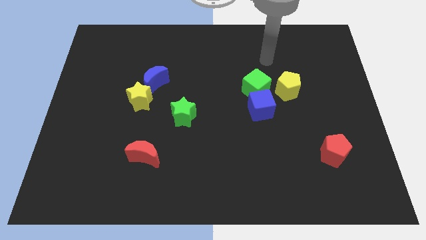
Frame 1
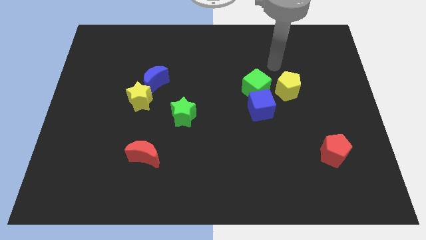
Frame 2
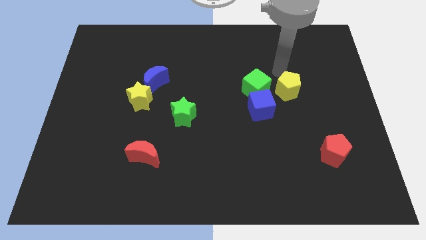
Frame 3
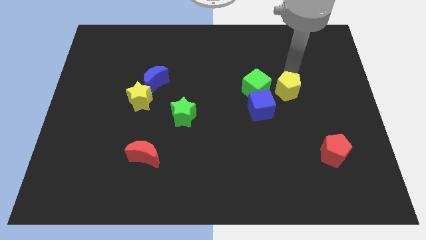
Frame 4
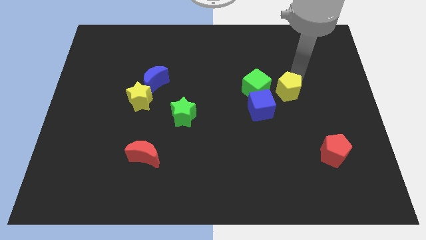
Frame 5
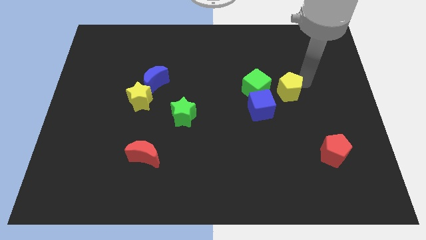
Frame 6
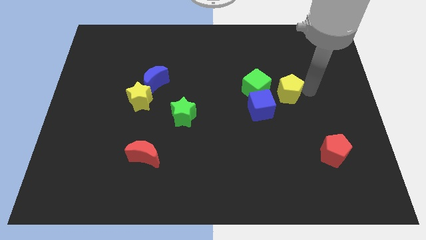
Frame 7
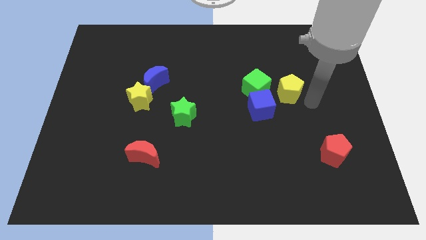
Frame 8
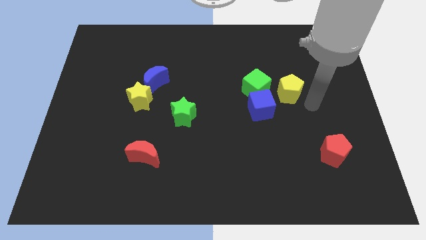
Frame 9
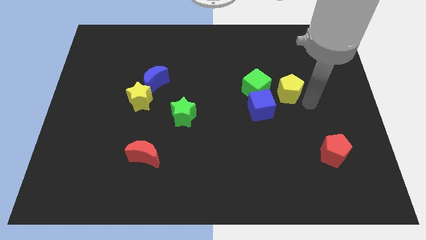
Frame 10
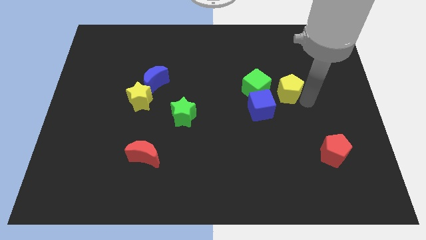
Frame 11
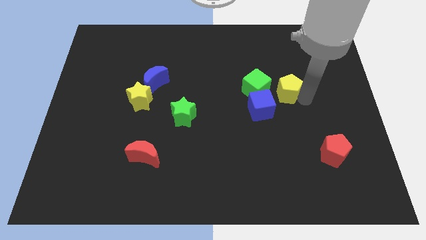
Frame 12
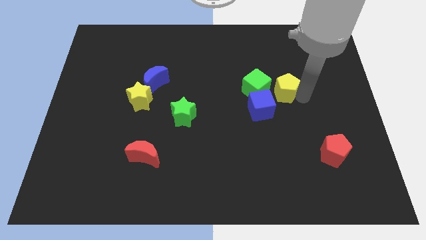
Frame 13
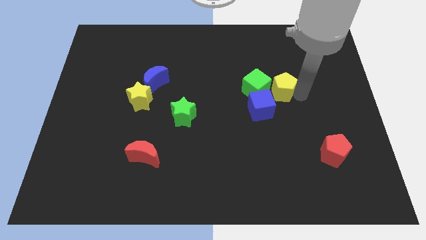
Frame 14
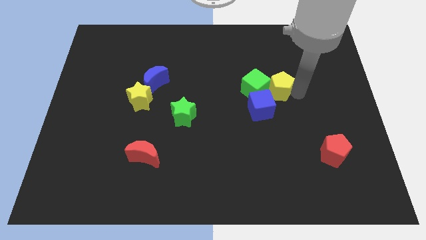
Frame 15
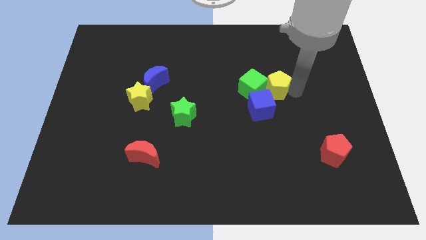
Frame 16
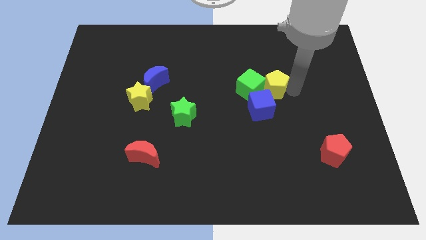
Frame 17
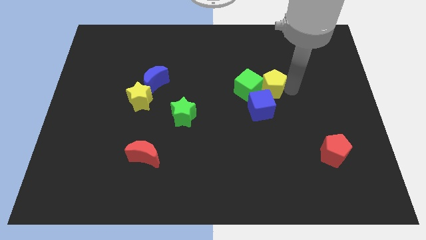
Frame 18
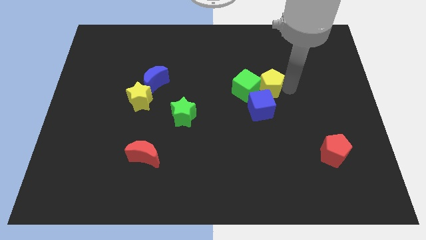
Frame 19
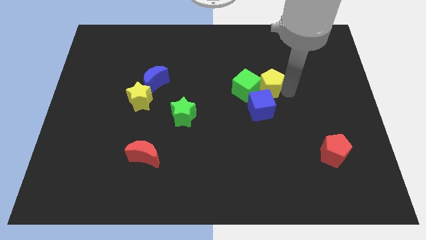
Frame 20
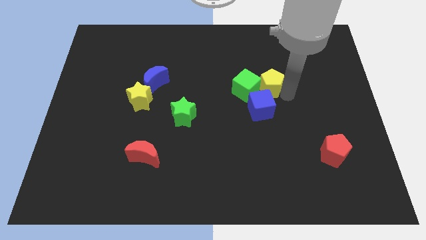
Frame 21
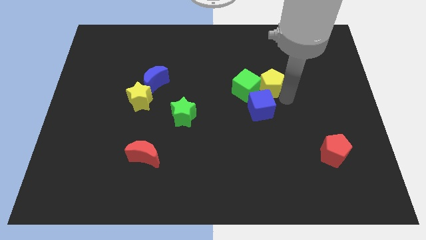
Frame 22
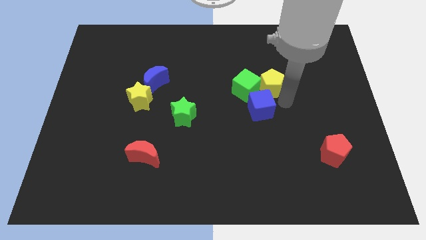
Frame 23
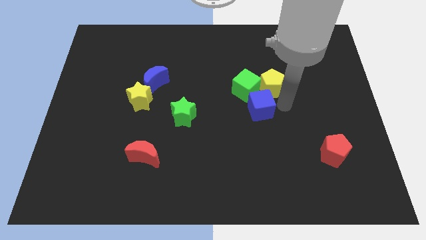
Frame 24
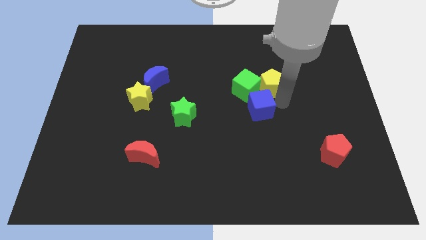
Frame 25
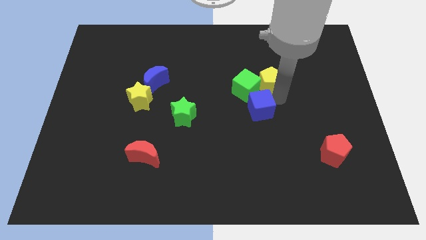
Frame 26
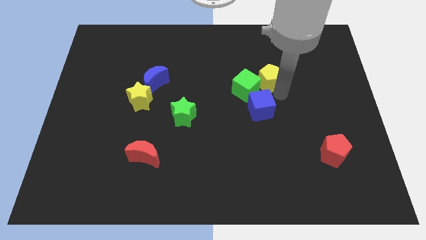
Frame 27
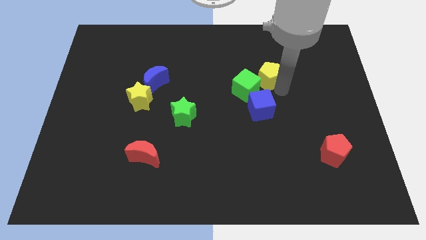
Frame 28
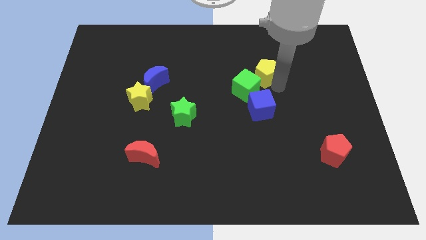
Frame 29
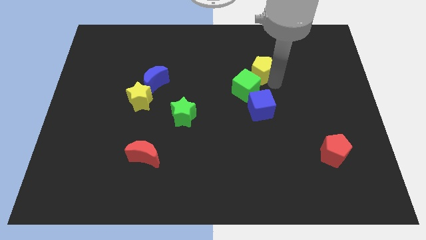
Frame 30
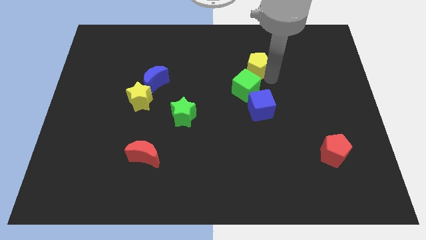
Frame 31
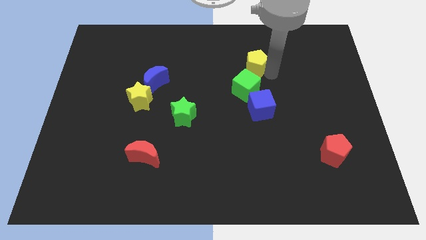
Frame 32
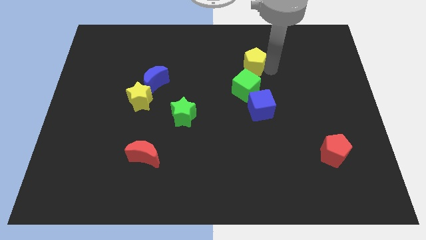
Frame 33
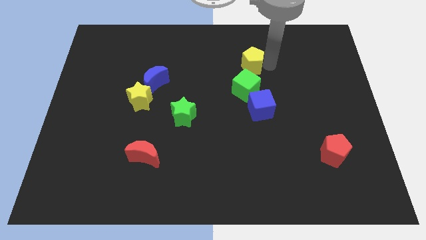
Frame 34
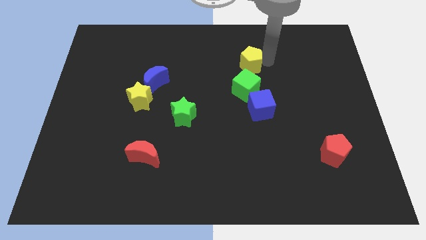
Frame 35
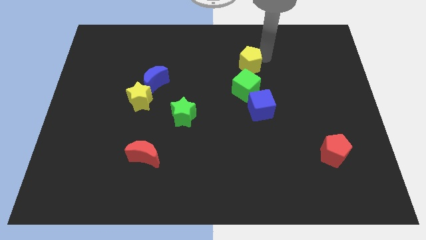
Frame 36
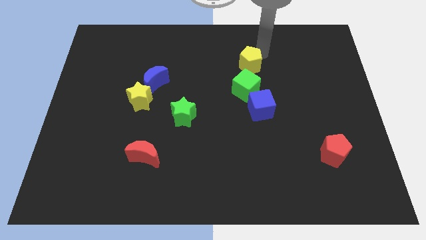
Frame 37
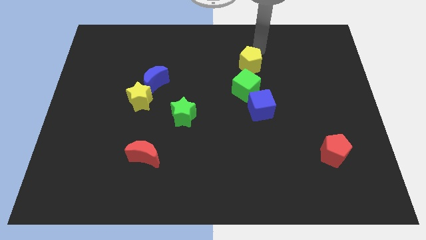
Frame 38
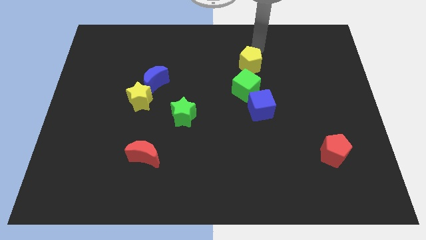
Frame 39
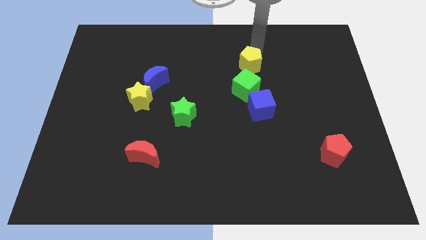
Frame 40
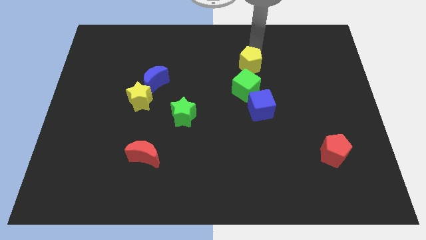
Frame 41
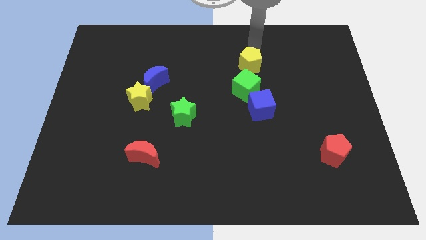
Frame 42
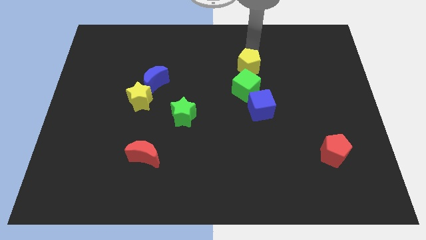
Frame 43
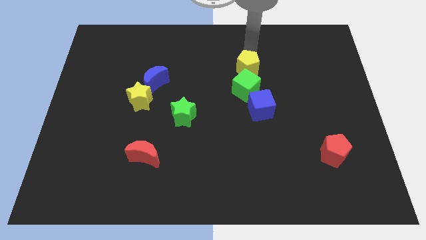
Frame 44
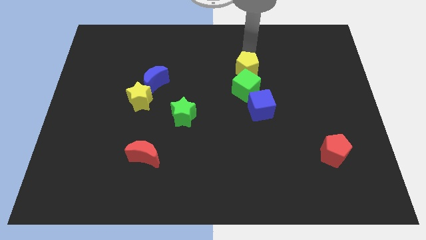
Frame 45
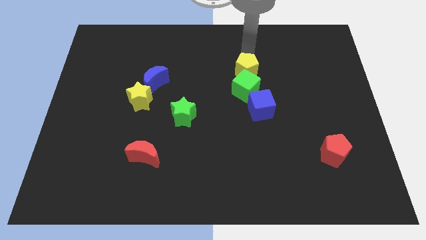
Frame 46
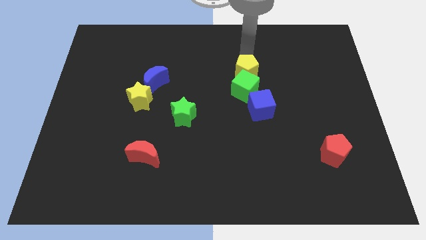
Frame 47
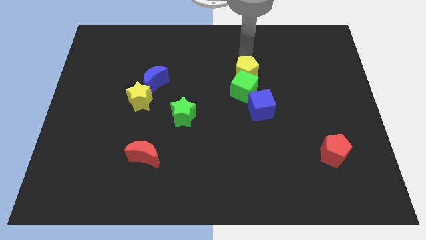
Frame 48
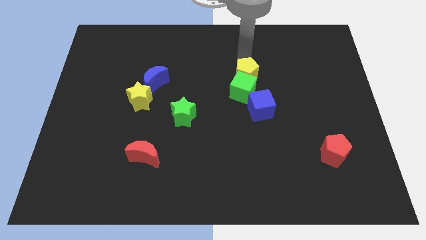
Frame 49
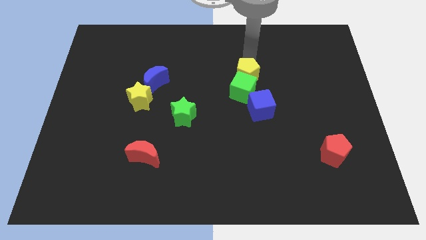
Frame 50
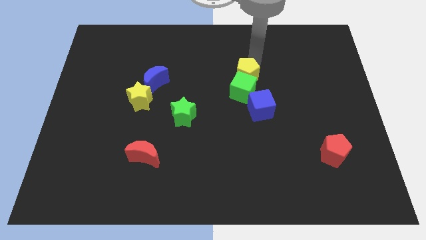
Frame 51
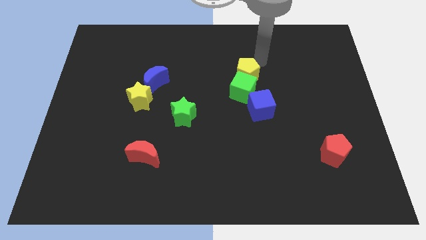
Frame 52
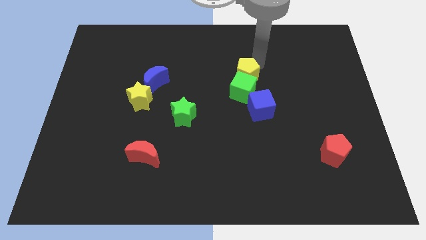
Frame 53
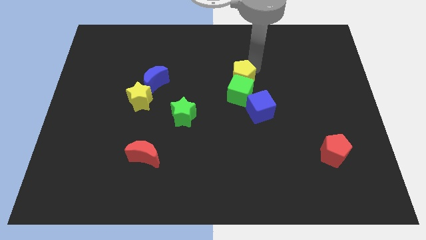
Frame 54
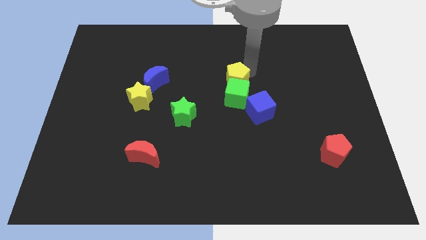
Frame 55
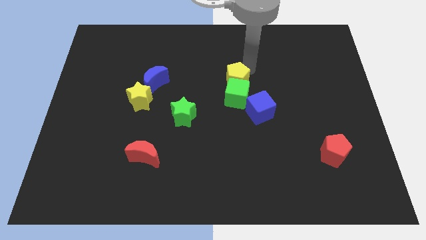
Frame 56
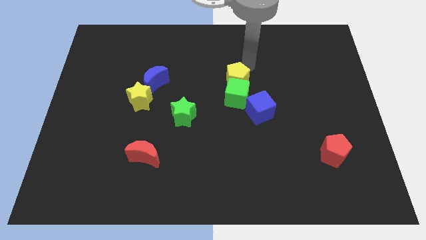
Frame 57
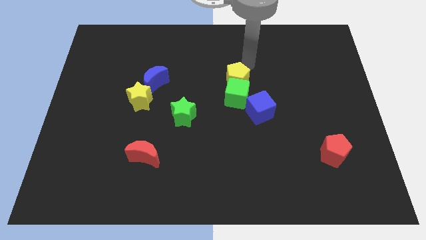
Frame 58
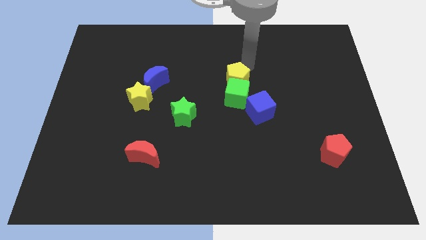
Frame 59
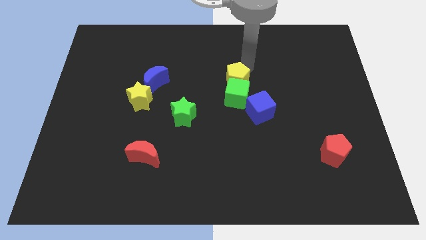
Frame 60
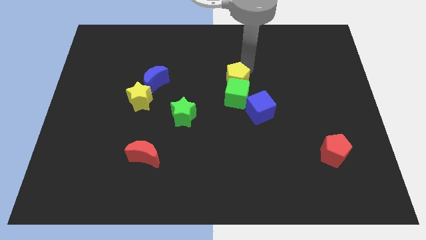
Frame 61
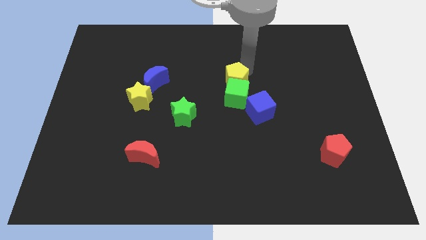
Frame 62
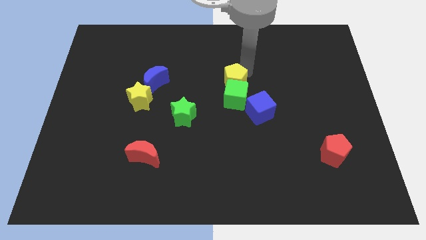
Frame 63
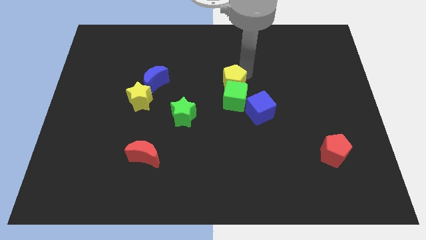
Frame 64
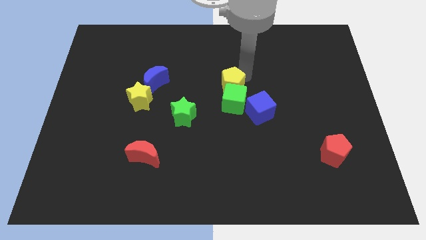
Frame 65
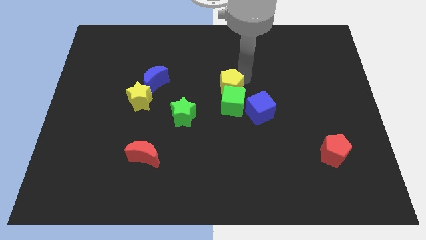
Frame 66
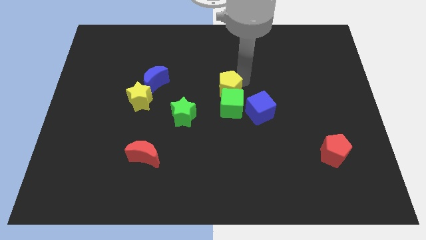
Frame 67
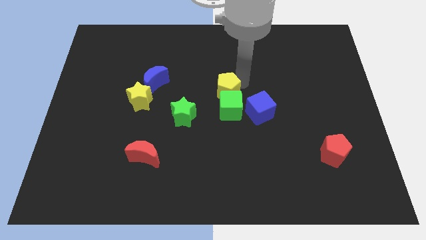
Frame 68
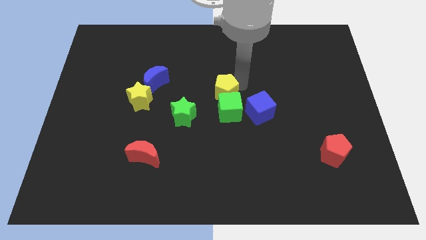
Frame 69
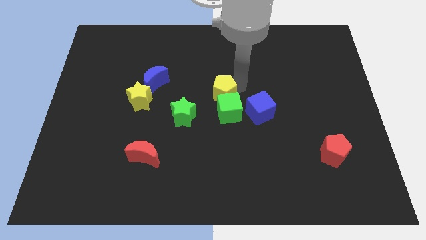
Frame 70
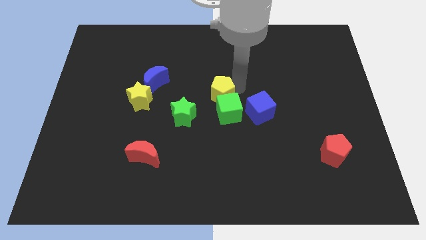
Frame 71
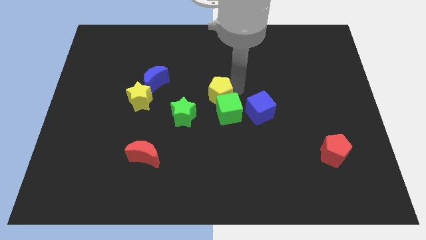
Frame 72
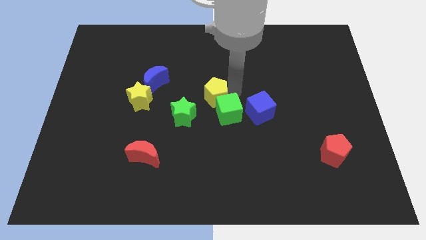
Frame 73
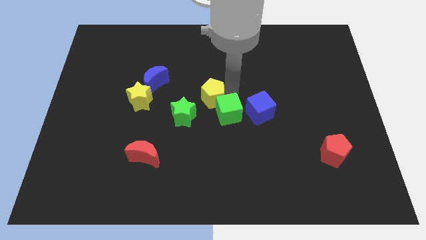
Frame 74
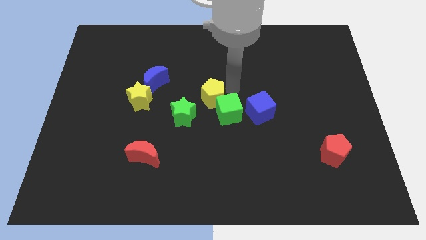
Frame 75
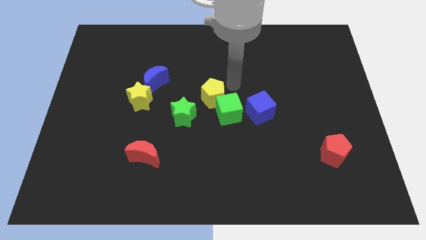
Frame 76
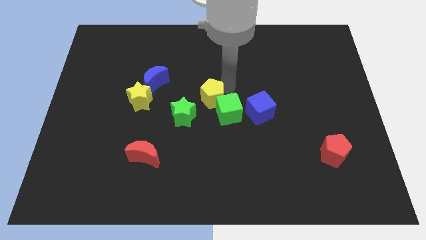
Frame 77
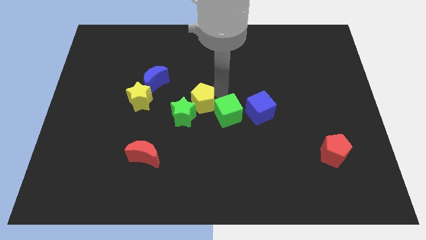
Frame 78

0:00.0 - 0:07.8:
put the yellow pentagon towards the green star
